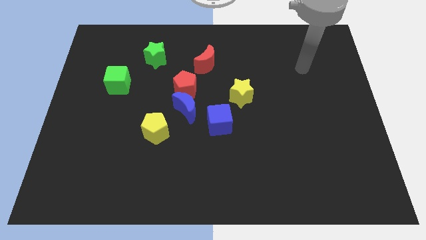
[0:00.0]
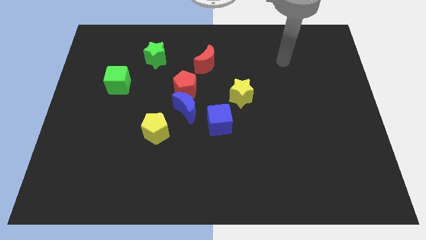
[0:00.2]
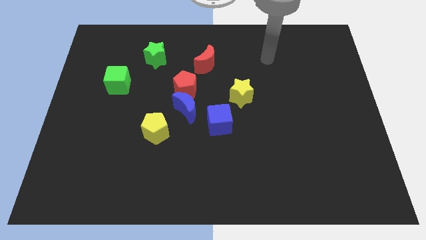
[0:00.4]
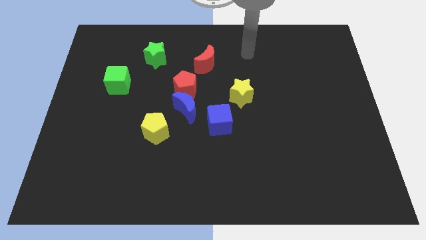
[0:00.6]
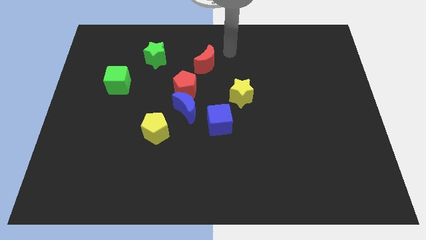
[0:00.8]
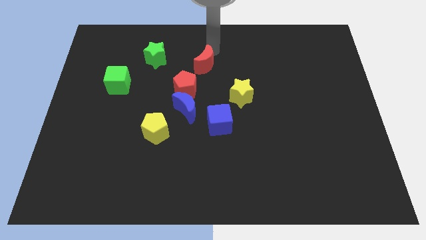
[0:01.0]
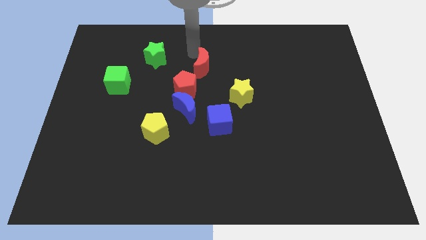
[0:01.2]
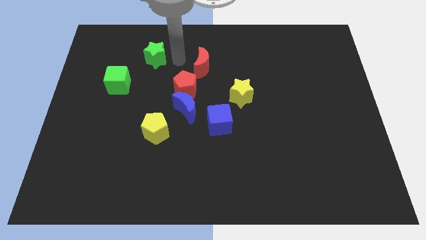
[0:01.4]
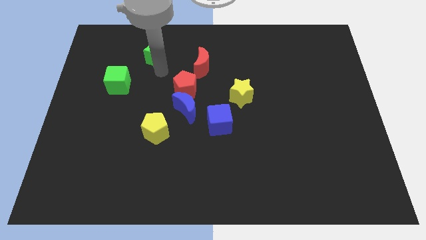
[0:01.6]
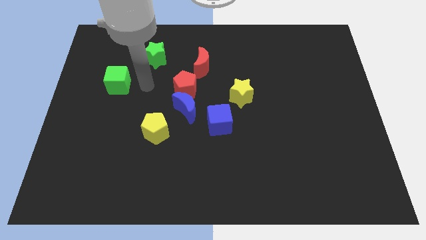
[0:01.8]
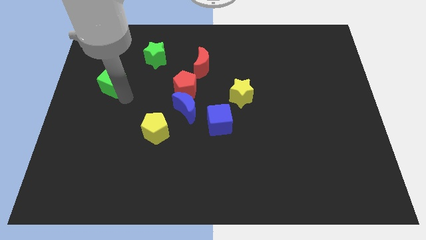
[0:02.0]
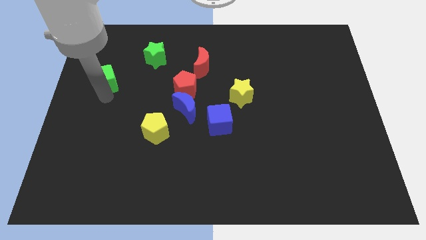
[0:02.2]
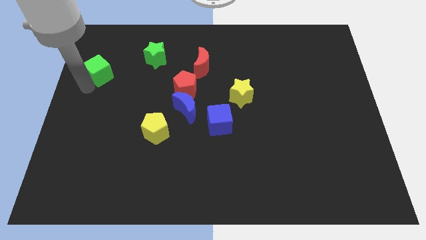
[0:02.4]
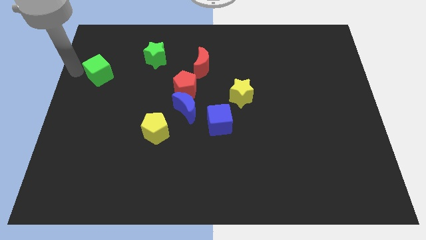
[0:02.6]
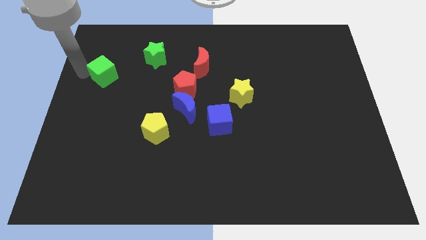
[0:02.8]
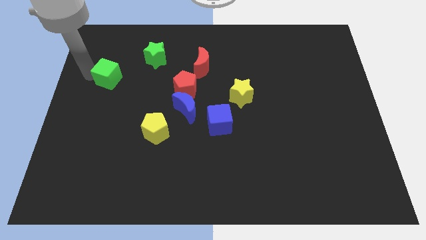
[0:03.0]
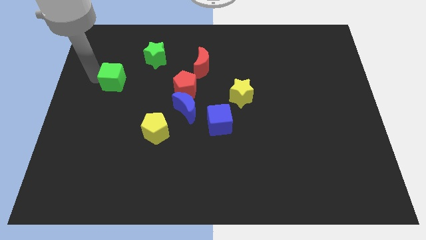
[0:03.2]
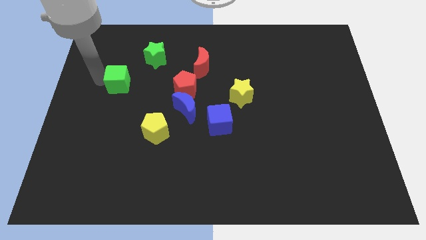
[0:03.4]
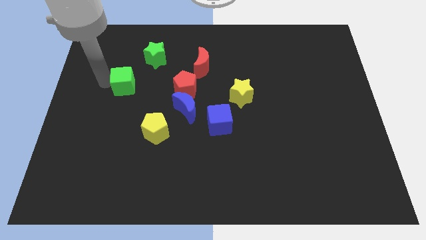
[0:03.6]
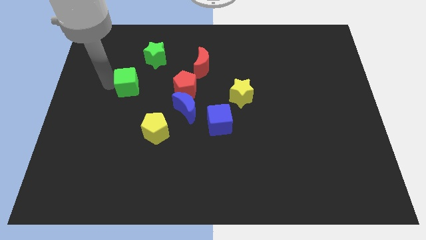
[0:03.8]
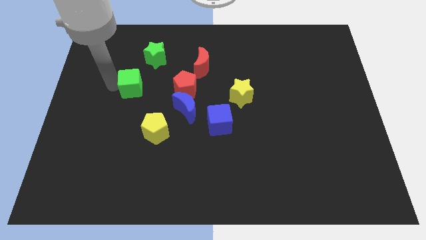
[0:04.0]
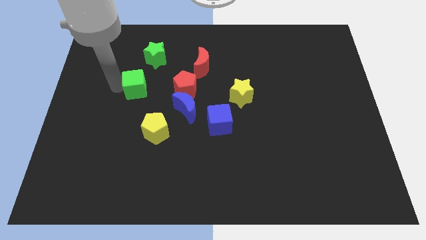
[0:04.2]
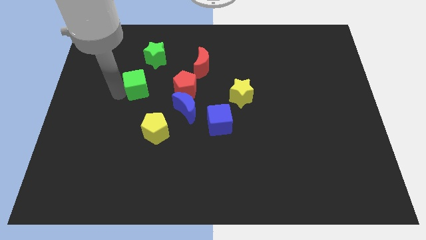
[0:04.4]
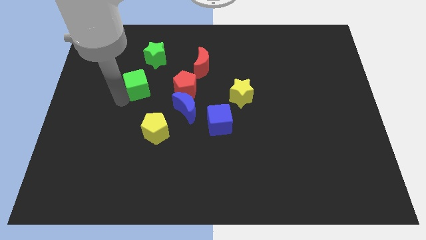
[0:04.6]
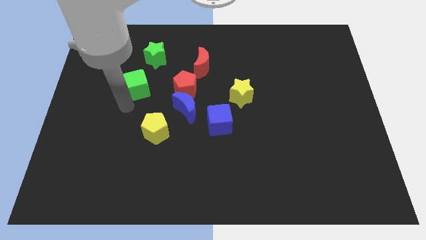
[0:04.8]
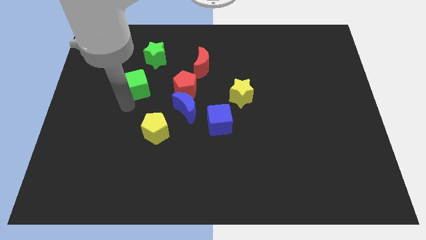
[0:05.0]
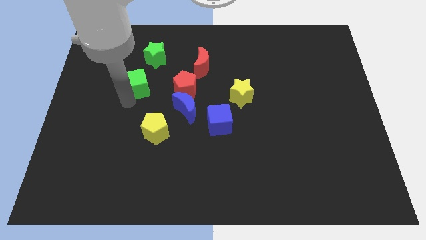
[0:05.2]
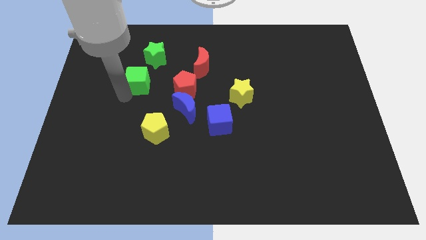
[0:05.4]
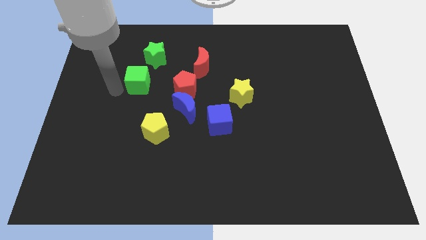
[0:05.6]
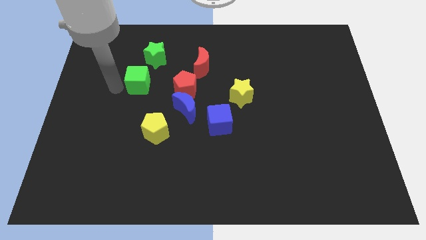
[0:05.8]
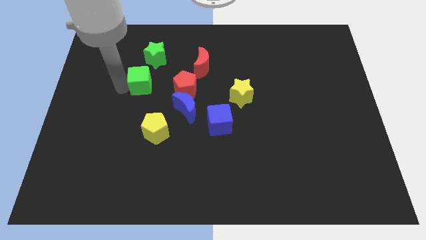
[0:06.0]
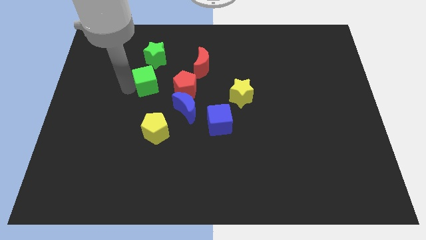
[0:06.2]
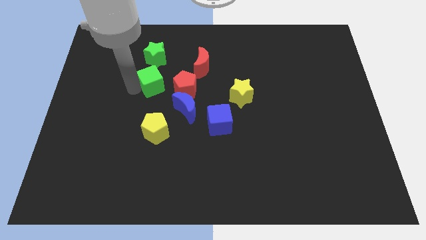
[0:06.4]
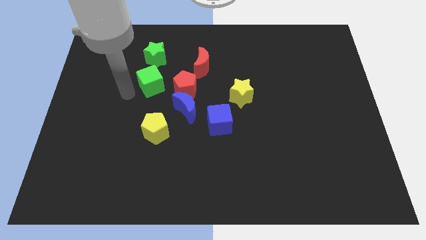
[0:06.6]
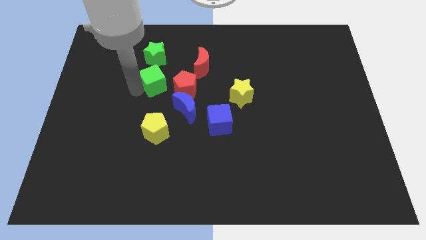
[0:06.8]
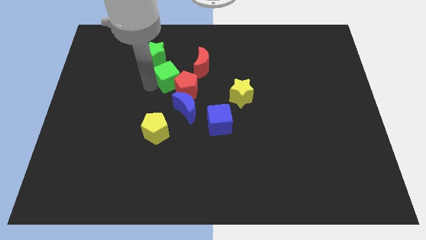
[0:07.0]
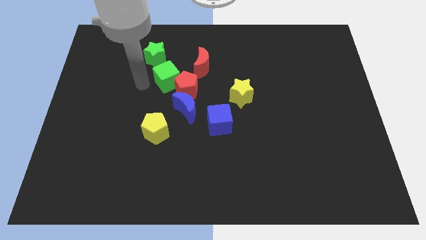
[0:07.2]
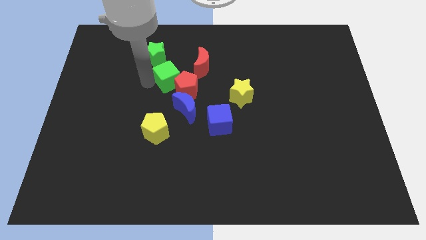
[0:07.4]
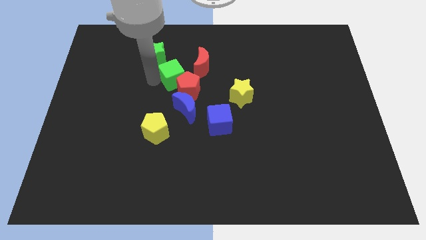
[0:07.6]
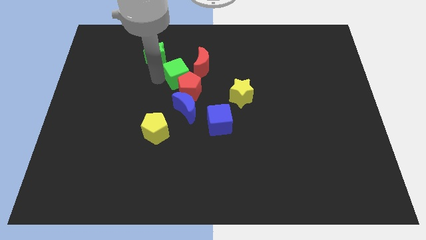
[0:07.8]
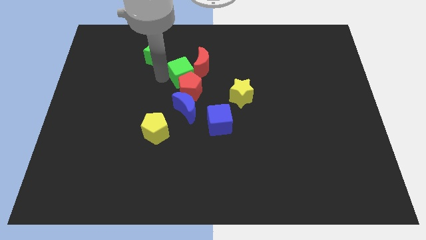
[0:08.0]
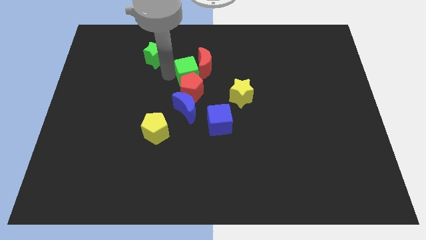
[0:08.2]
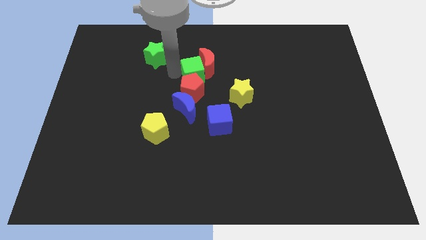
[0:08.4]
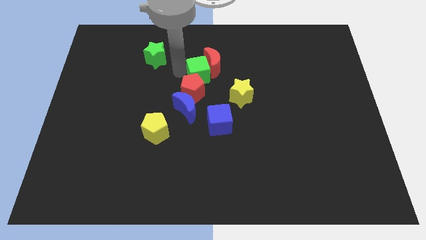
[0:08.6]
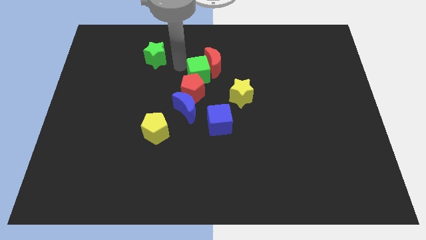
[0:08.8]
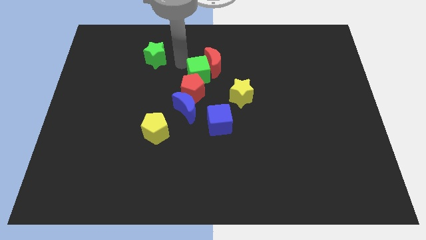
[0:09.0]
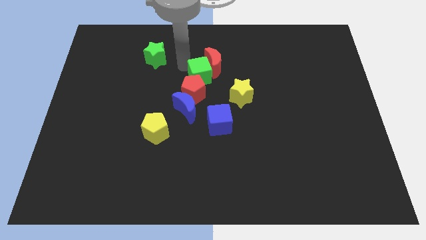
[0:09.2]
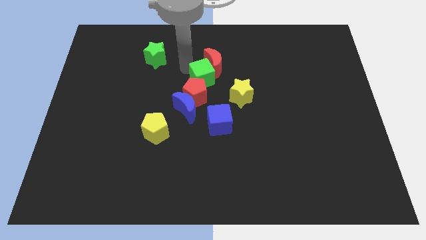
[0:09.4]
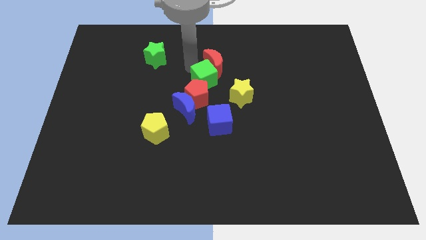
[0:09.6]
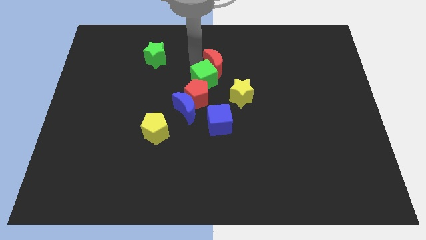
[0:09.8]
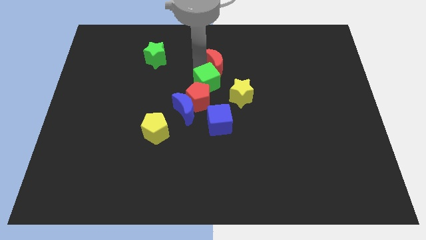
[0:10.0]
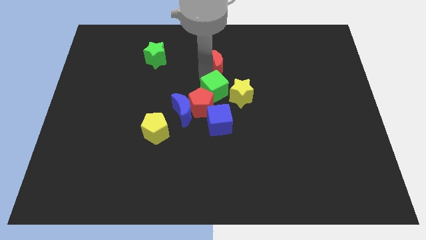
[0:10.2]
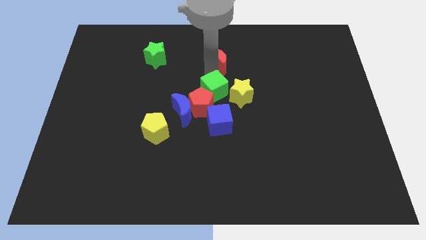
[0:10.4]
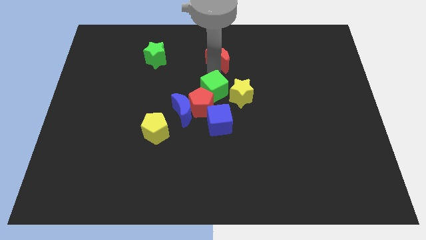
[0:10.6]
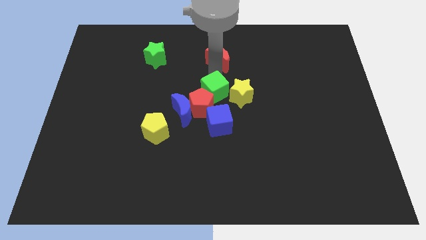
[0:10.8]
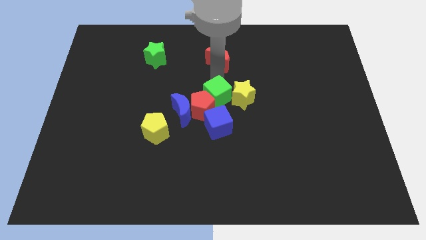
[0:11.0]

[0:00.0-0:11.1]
push the green cube to the right of the blue moon

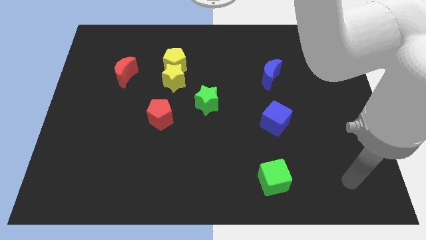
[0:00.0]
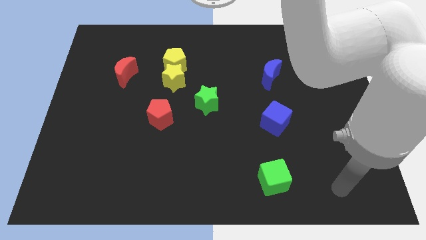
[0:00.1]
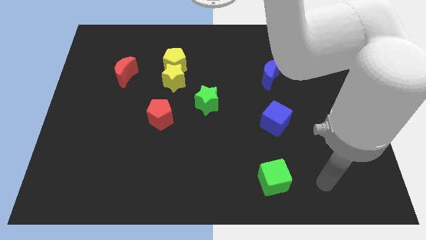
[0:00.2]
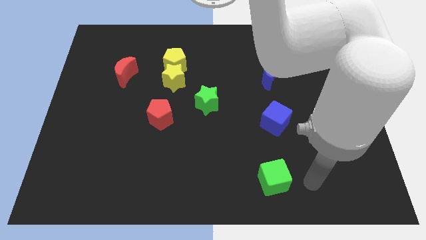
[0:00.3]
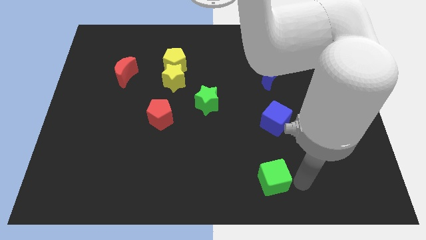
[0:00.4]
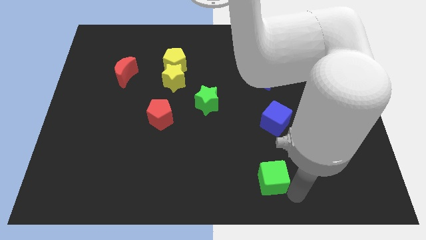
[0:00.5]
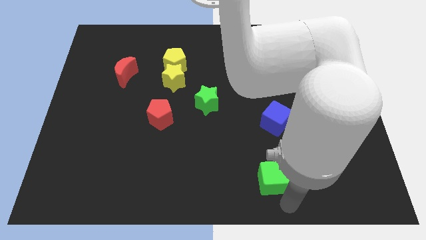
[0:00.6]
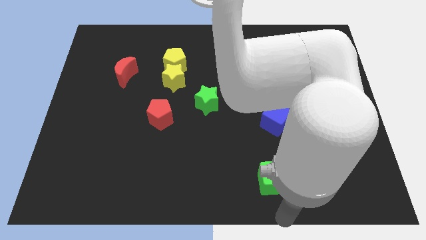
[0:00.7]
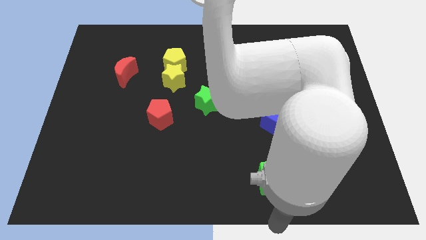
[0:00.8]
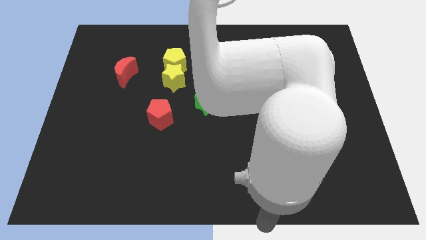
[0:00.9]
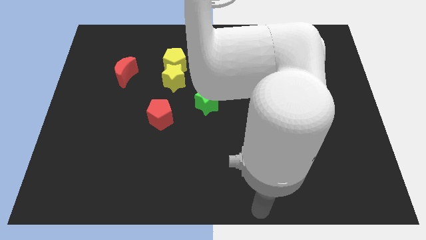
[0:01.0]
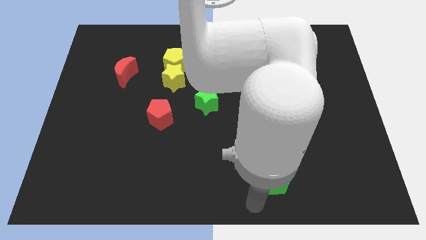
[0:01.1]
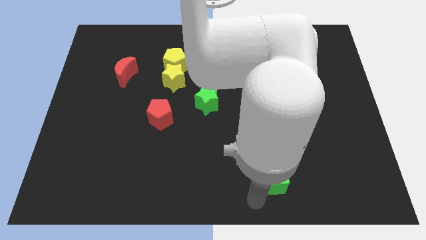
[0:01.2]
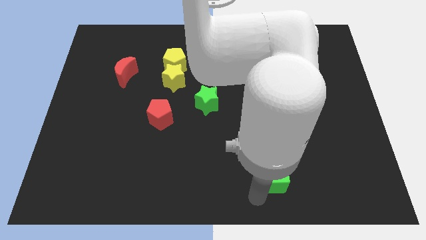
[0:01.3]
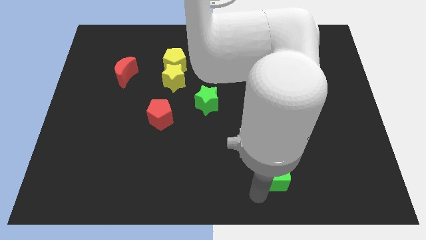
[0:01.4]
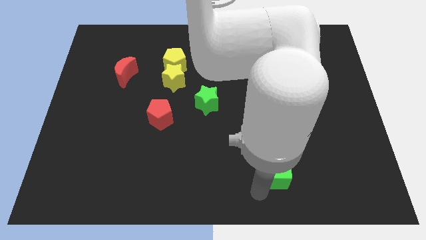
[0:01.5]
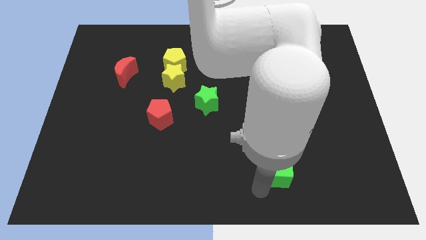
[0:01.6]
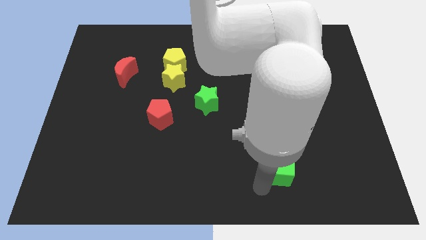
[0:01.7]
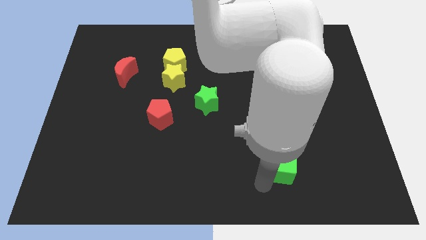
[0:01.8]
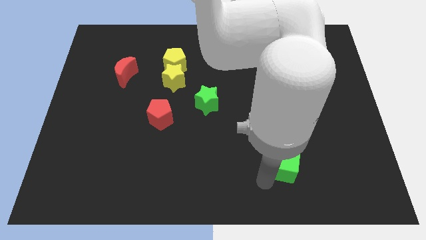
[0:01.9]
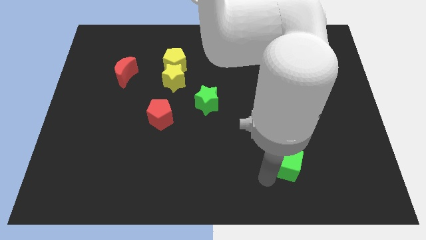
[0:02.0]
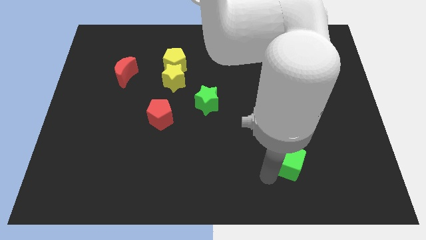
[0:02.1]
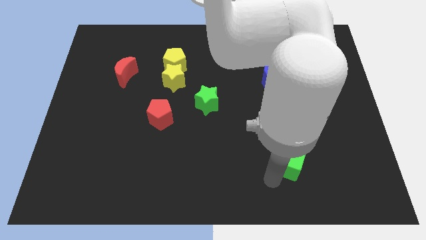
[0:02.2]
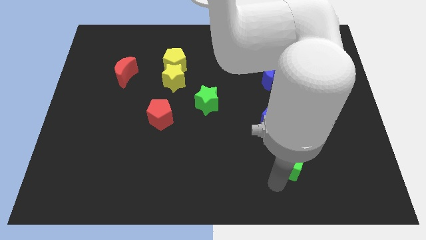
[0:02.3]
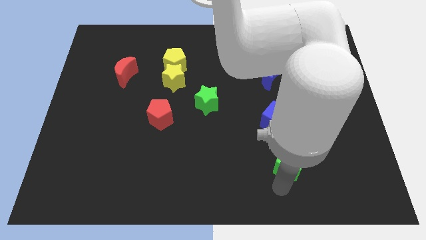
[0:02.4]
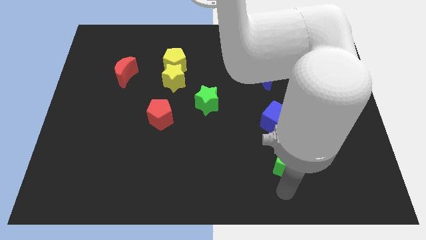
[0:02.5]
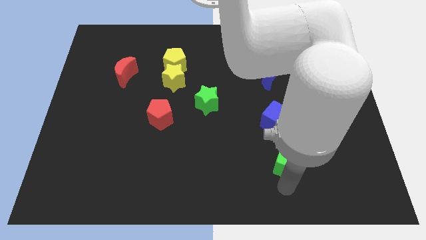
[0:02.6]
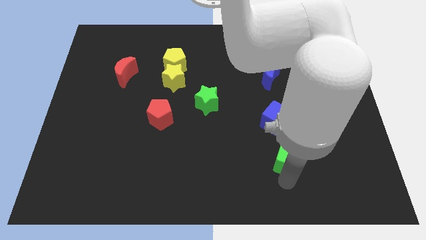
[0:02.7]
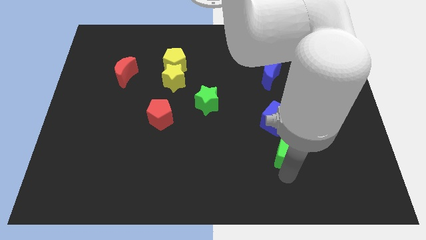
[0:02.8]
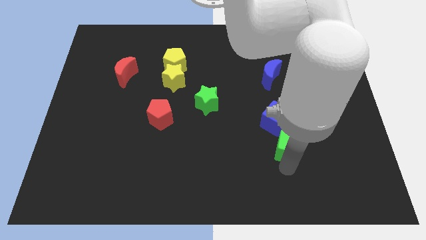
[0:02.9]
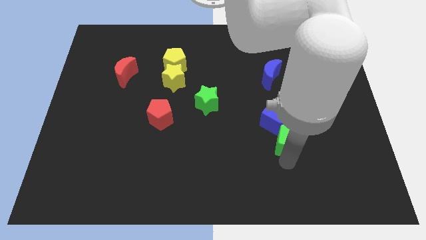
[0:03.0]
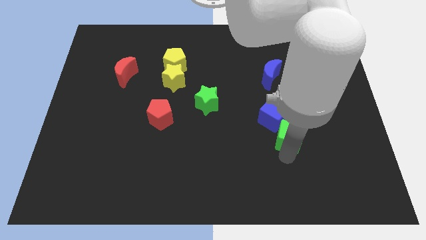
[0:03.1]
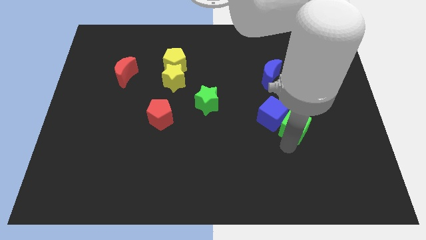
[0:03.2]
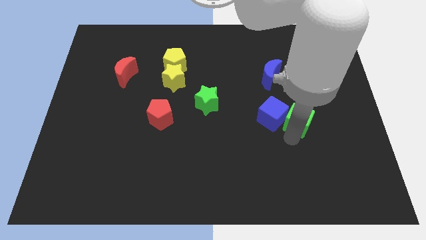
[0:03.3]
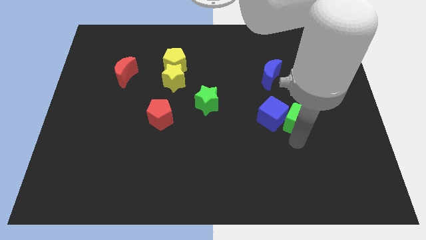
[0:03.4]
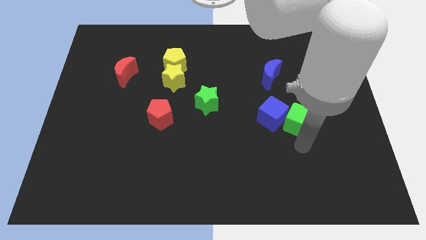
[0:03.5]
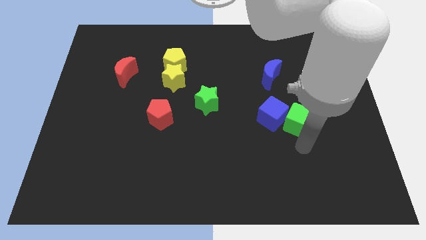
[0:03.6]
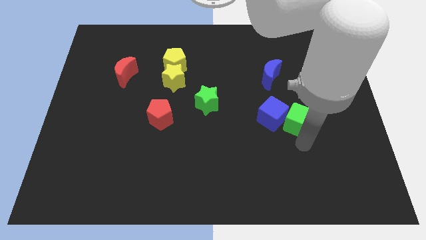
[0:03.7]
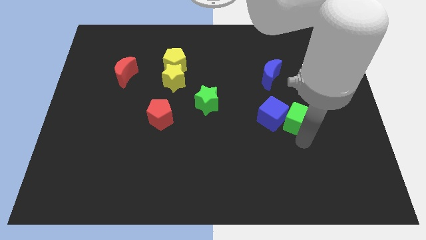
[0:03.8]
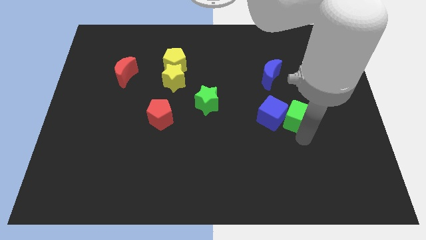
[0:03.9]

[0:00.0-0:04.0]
slide the green cube to the top right side of the blue cube
